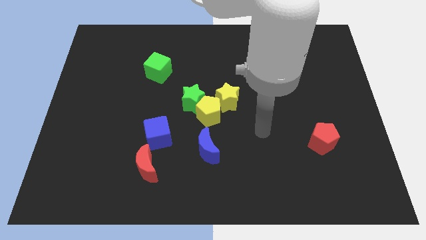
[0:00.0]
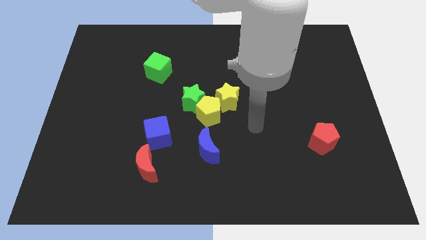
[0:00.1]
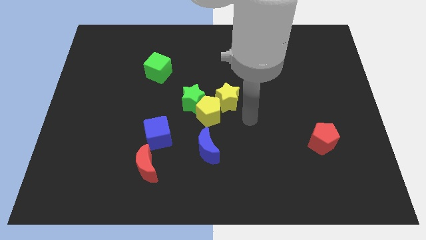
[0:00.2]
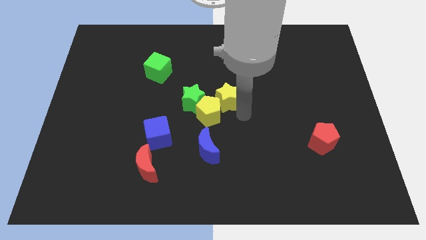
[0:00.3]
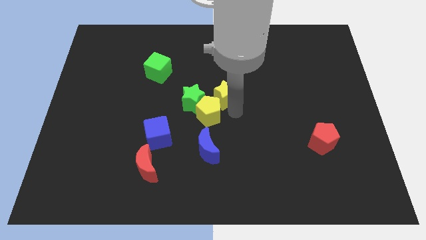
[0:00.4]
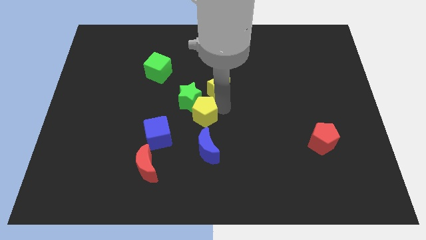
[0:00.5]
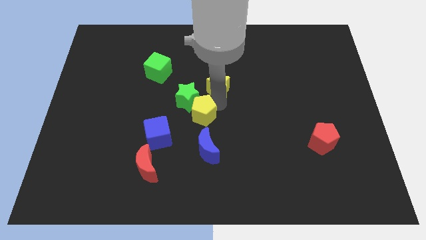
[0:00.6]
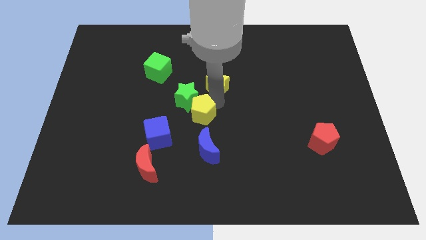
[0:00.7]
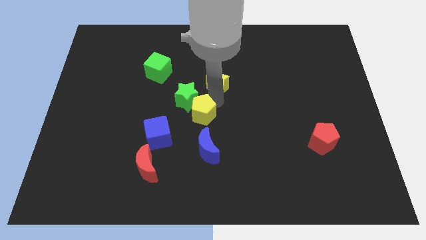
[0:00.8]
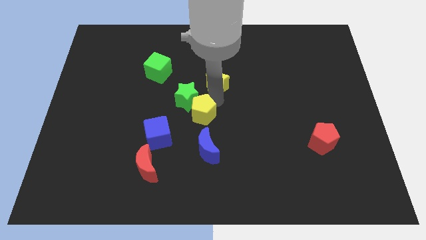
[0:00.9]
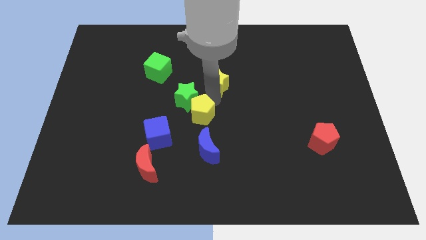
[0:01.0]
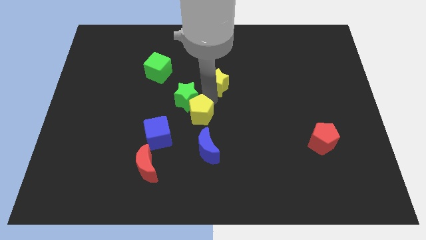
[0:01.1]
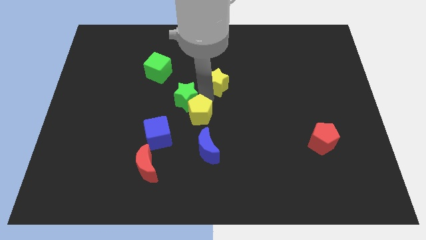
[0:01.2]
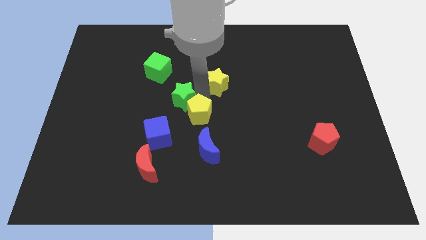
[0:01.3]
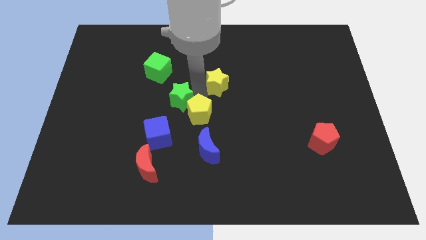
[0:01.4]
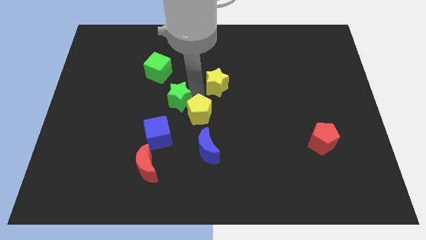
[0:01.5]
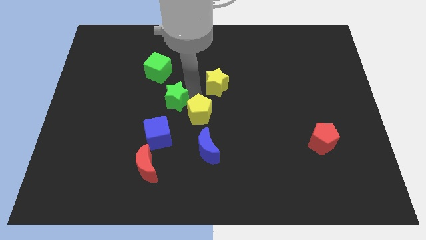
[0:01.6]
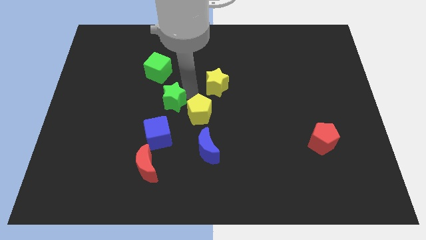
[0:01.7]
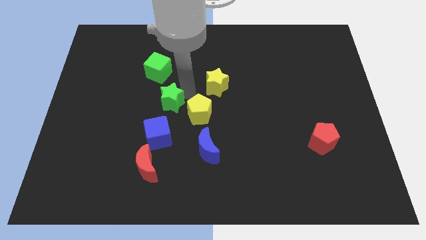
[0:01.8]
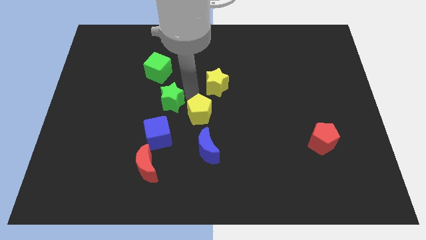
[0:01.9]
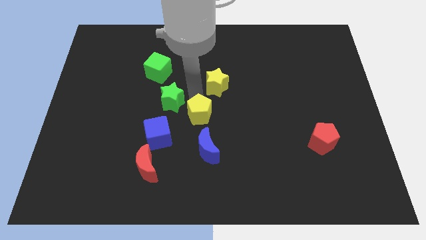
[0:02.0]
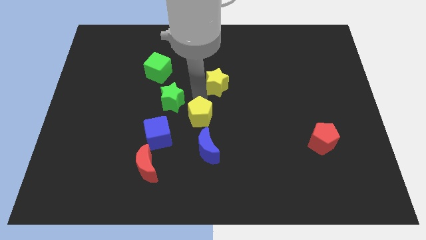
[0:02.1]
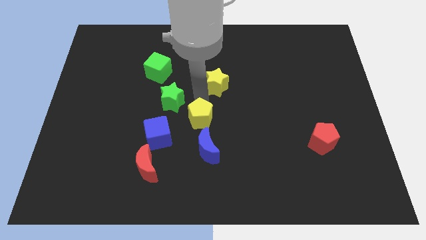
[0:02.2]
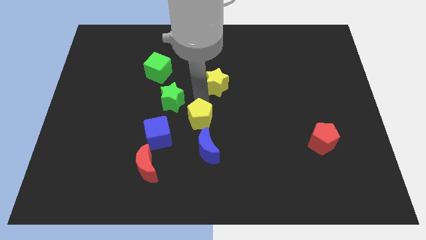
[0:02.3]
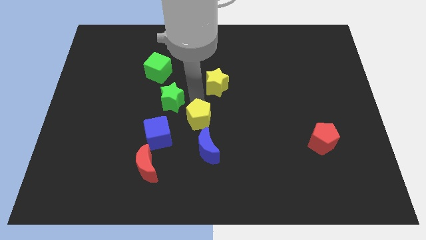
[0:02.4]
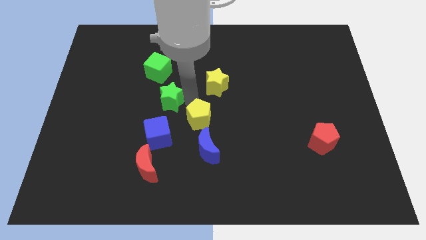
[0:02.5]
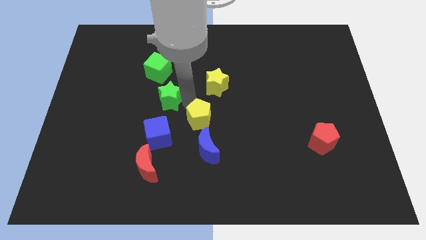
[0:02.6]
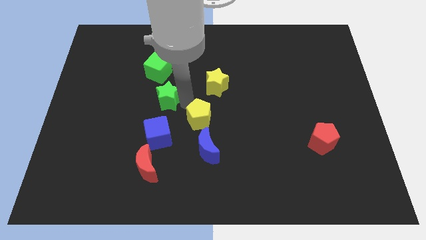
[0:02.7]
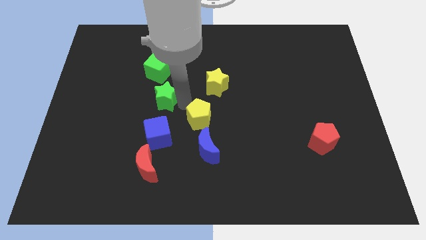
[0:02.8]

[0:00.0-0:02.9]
move the green star away from the yellow pentagon and yellow star

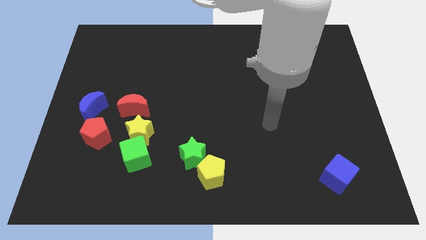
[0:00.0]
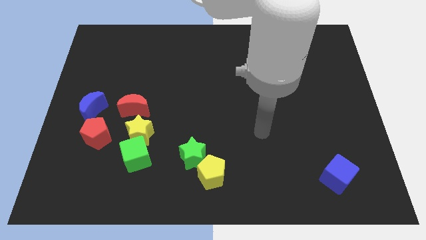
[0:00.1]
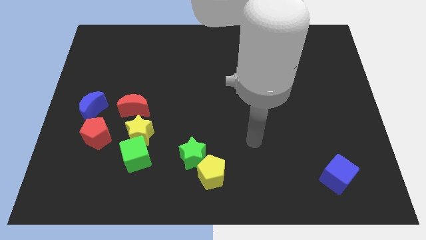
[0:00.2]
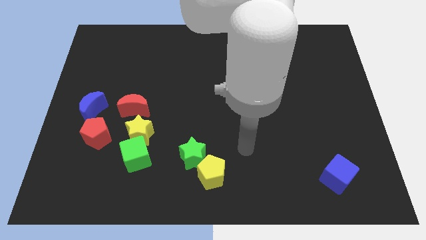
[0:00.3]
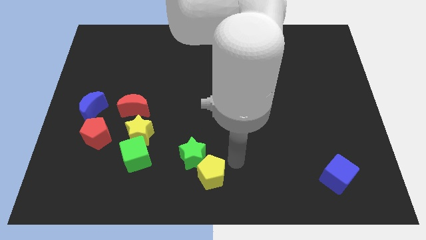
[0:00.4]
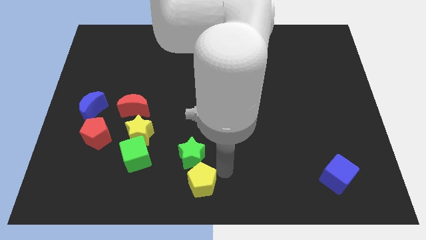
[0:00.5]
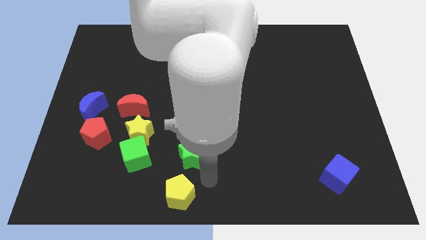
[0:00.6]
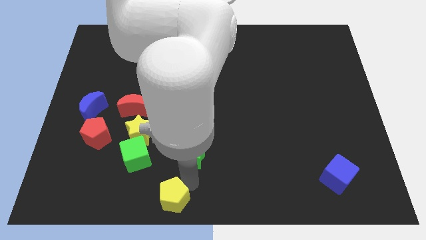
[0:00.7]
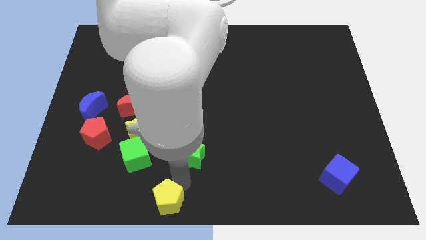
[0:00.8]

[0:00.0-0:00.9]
separate the green star from the yellow pentagon

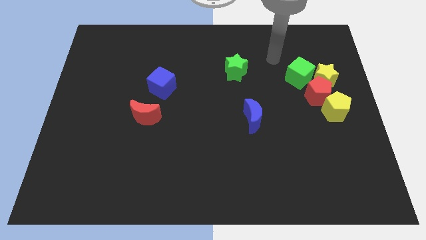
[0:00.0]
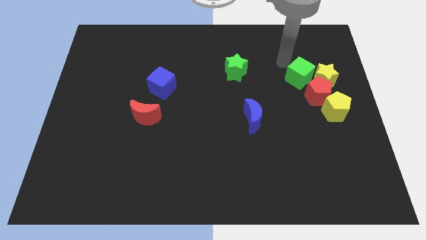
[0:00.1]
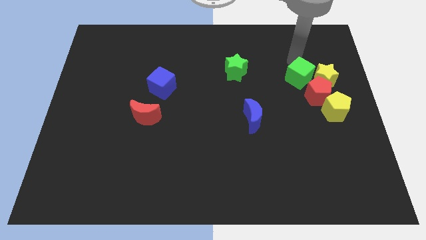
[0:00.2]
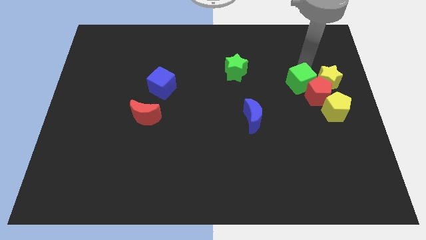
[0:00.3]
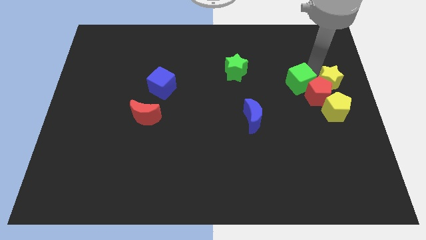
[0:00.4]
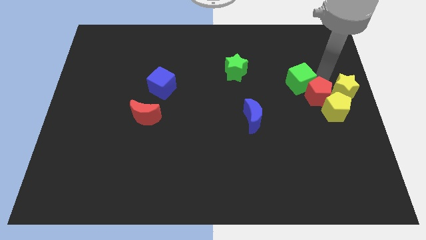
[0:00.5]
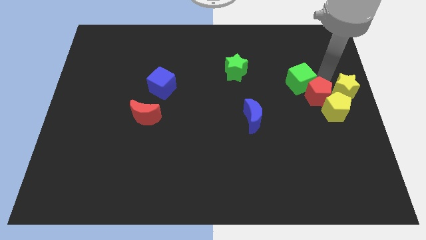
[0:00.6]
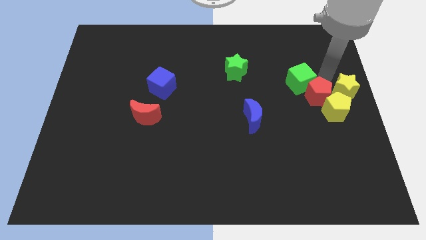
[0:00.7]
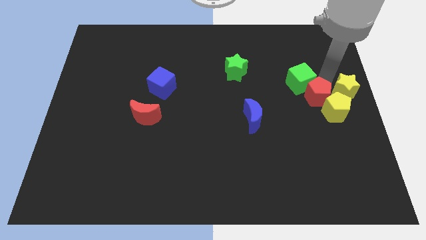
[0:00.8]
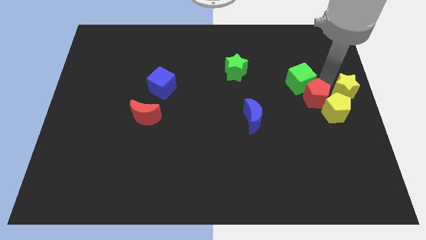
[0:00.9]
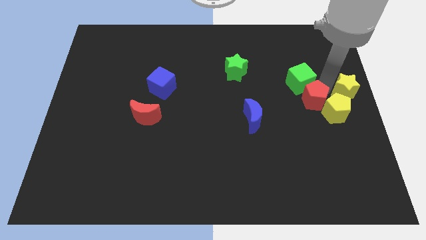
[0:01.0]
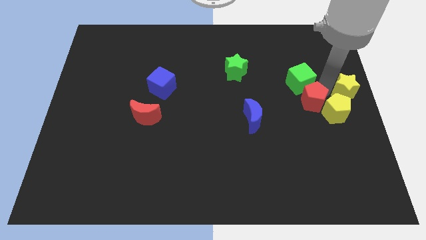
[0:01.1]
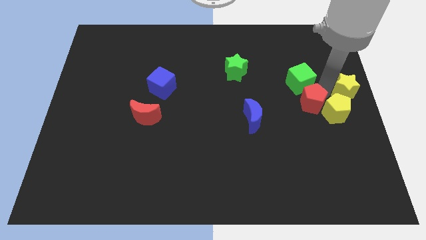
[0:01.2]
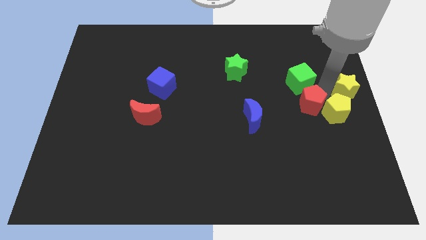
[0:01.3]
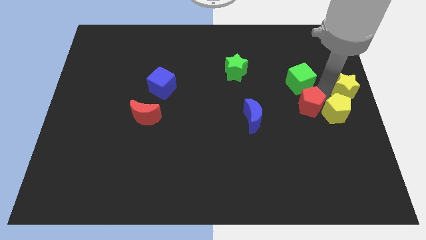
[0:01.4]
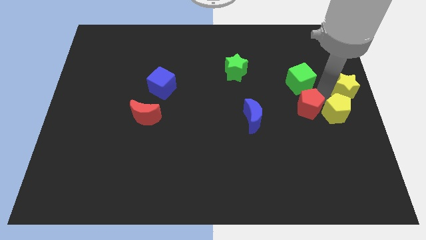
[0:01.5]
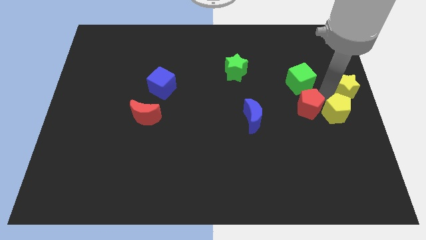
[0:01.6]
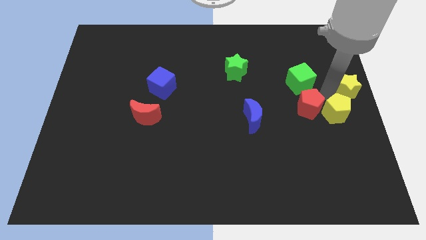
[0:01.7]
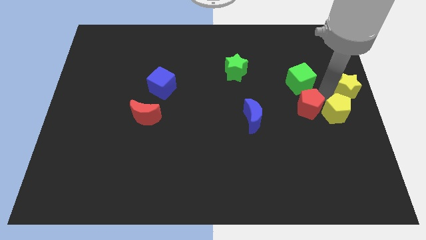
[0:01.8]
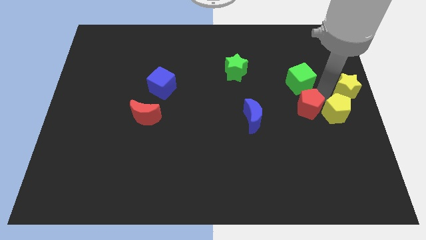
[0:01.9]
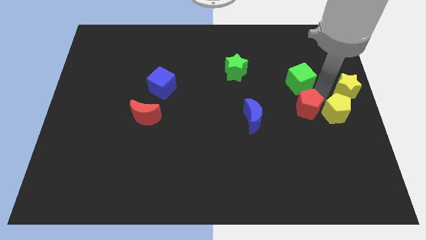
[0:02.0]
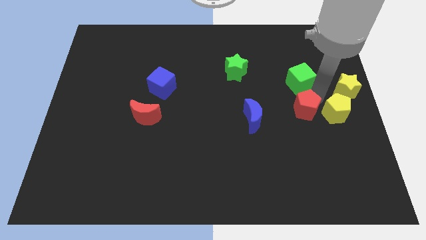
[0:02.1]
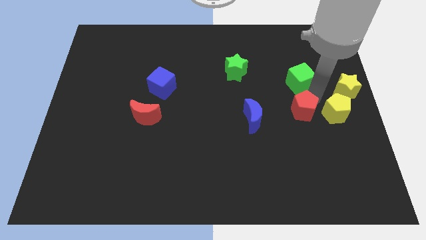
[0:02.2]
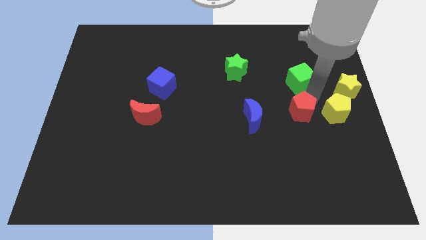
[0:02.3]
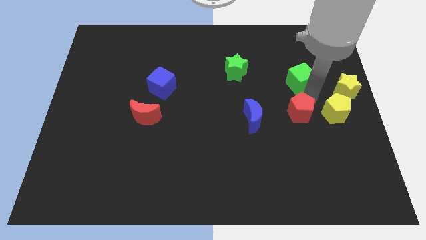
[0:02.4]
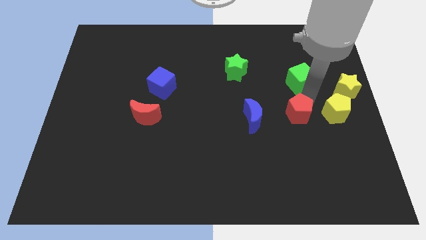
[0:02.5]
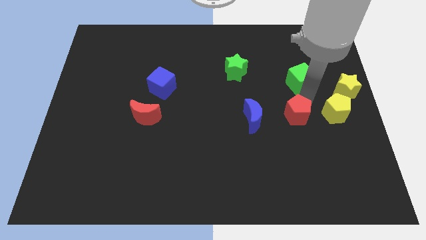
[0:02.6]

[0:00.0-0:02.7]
pull the red pentagon apart from the group

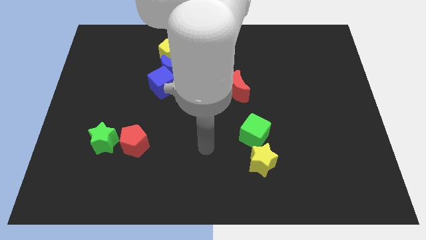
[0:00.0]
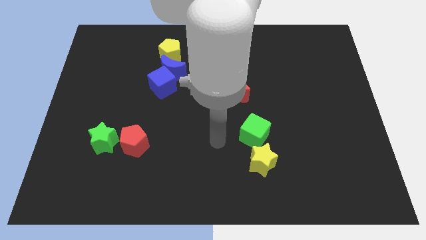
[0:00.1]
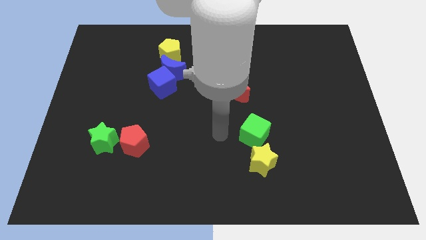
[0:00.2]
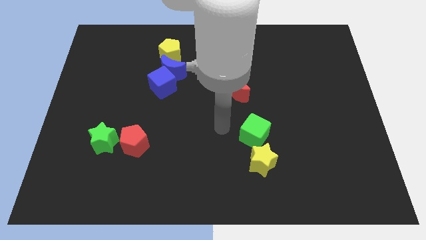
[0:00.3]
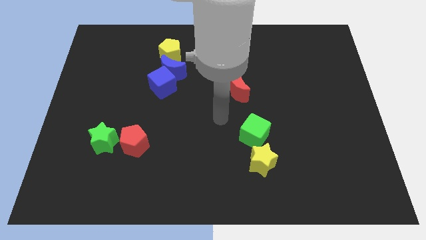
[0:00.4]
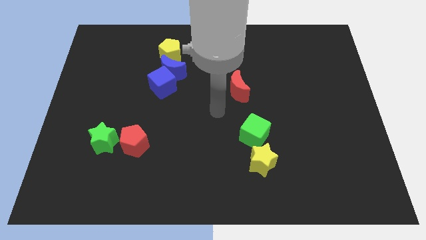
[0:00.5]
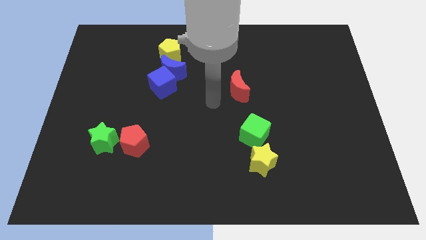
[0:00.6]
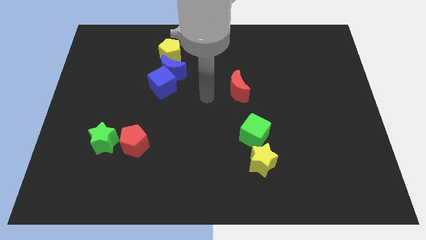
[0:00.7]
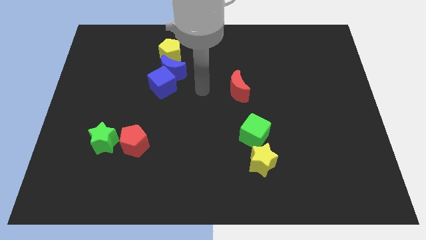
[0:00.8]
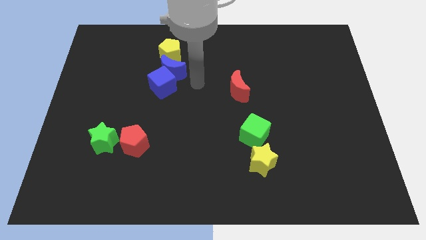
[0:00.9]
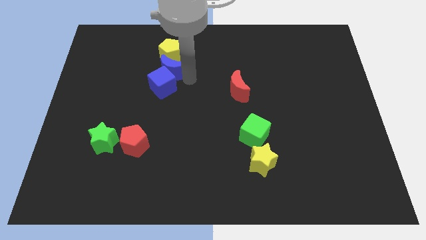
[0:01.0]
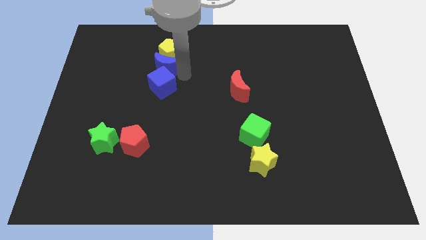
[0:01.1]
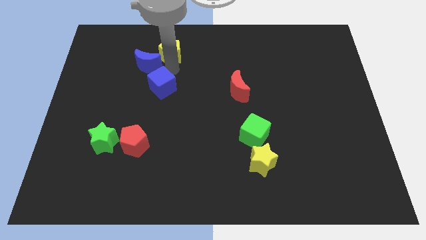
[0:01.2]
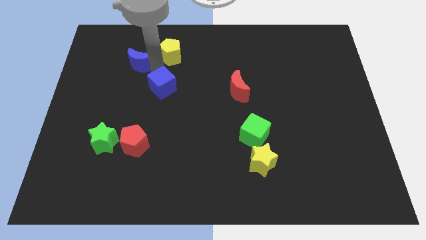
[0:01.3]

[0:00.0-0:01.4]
pull the blue cube apart from the blue moon

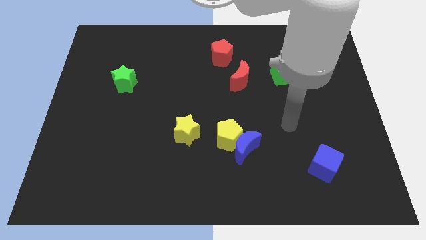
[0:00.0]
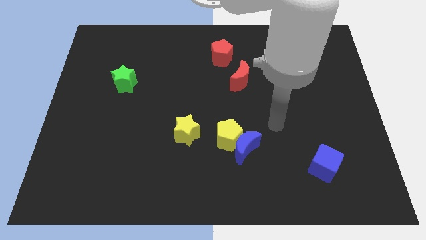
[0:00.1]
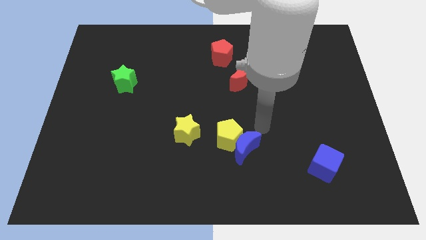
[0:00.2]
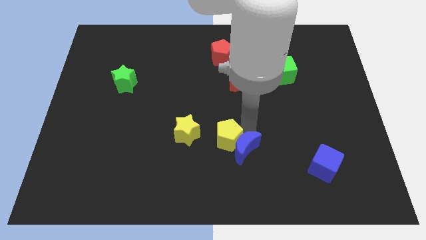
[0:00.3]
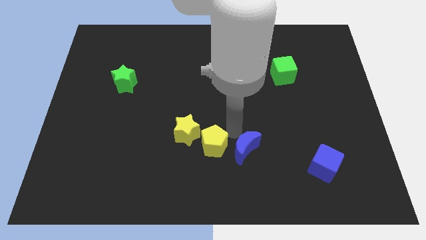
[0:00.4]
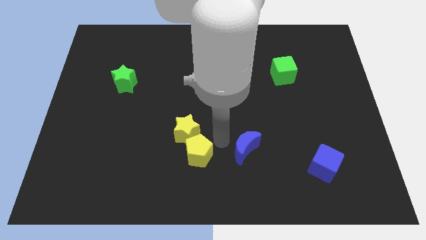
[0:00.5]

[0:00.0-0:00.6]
pull the blue moon apart from the yellow pentagon

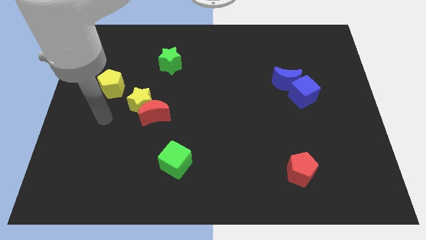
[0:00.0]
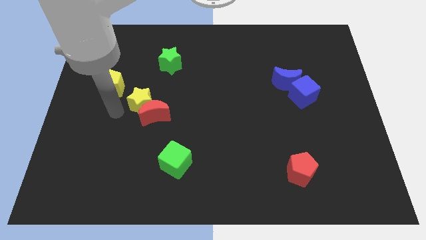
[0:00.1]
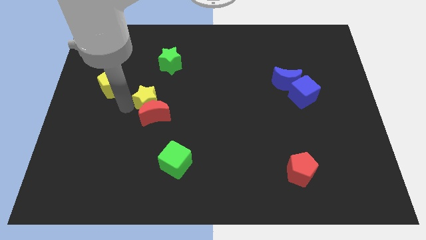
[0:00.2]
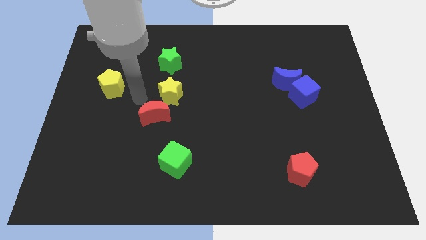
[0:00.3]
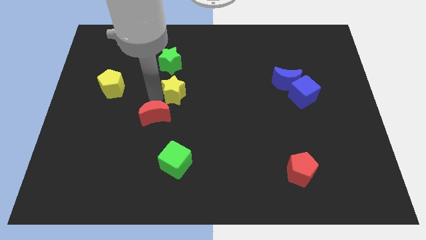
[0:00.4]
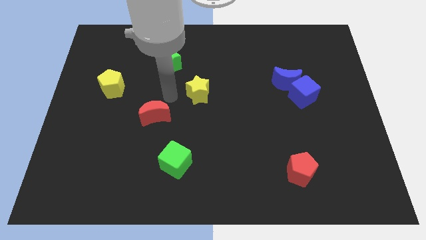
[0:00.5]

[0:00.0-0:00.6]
separate the red moon from the yellow star
